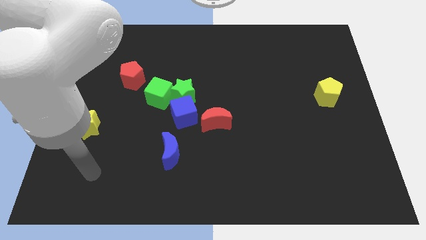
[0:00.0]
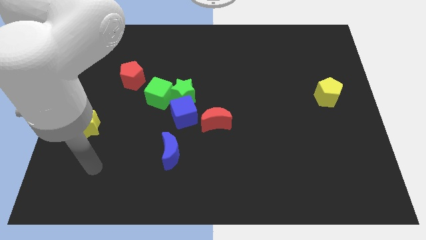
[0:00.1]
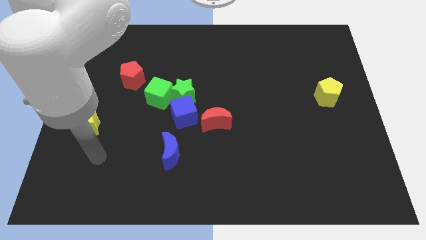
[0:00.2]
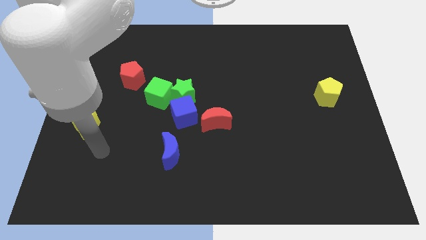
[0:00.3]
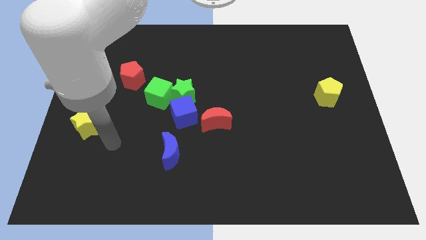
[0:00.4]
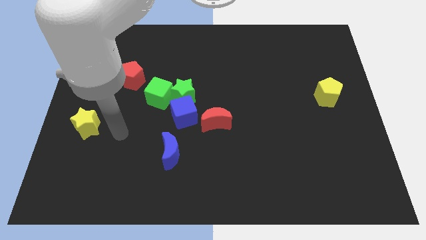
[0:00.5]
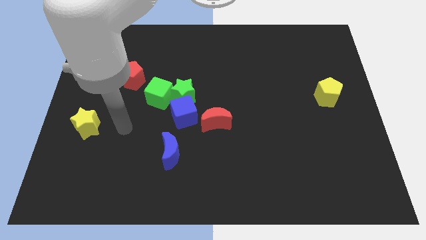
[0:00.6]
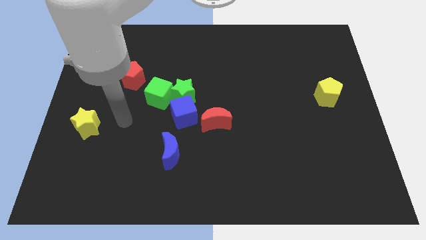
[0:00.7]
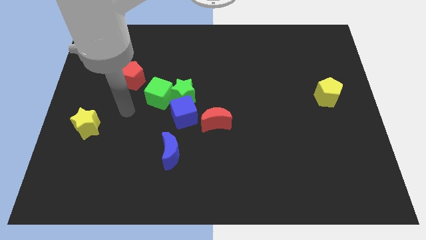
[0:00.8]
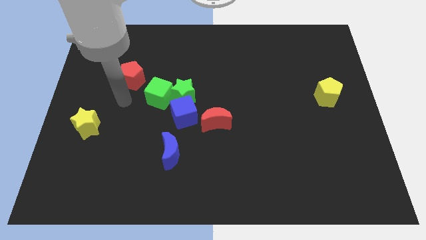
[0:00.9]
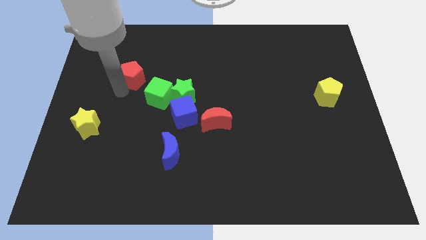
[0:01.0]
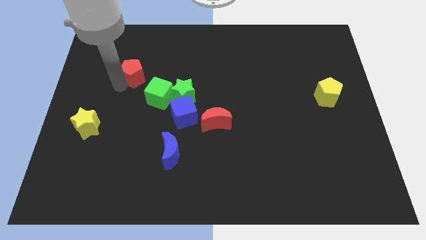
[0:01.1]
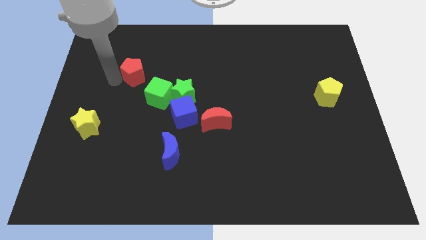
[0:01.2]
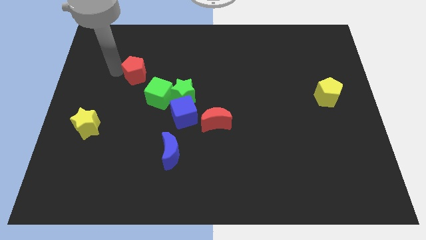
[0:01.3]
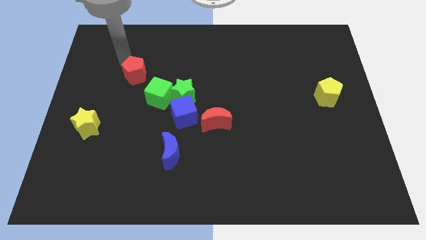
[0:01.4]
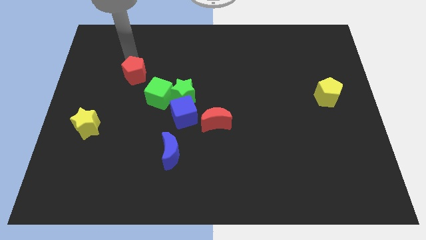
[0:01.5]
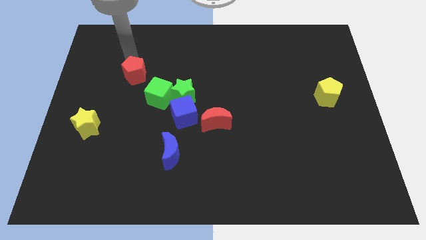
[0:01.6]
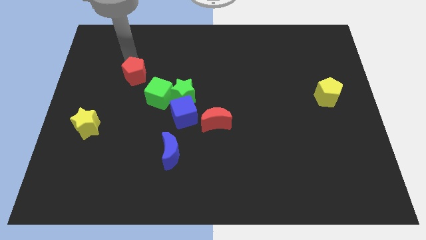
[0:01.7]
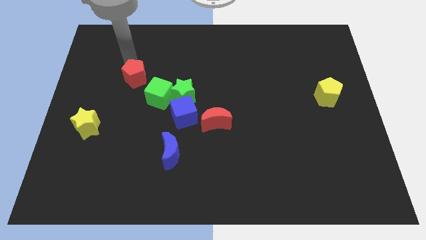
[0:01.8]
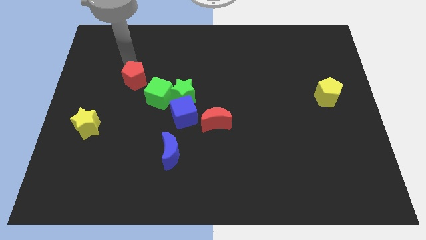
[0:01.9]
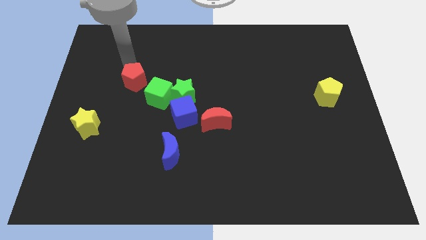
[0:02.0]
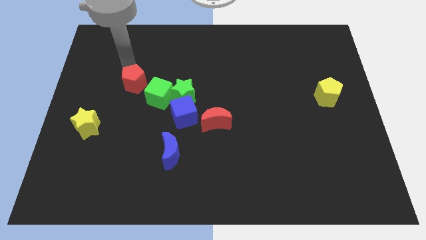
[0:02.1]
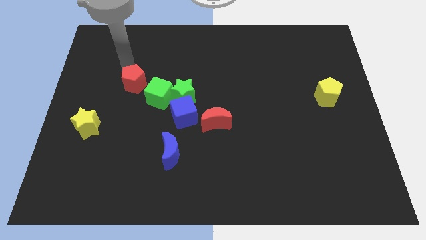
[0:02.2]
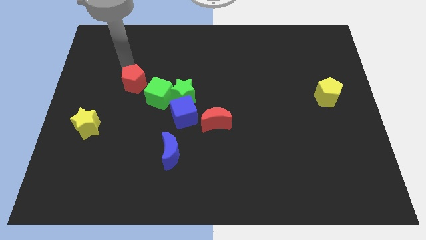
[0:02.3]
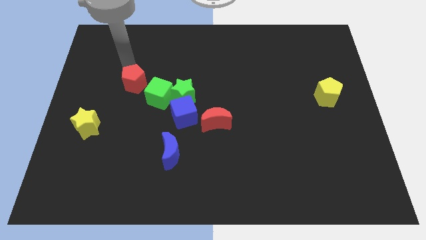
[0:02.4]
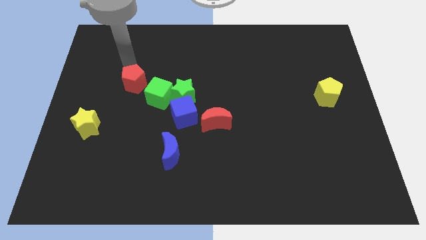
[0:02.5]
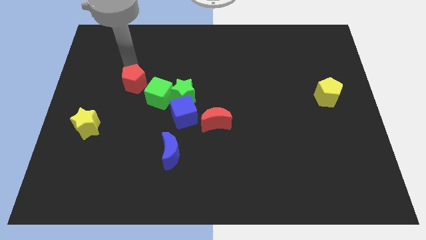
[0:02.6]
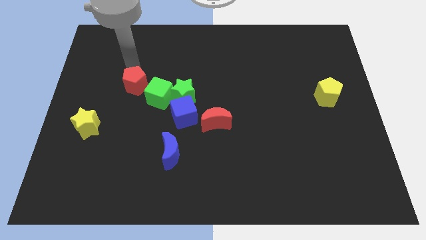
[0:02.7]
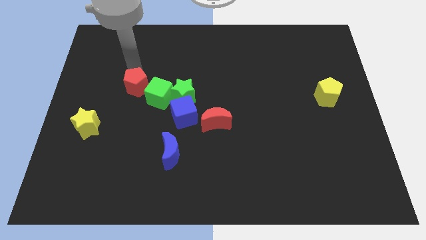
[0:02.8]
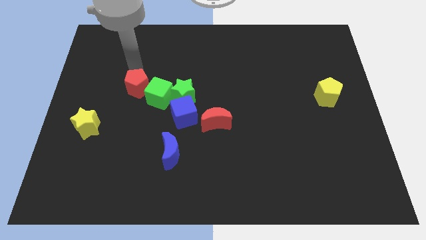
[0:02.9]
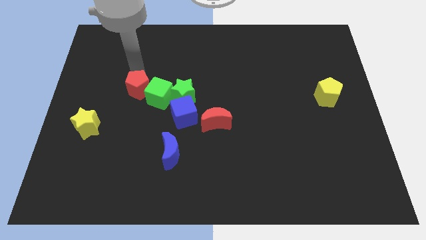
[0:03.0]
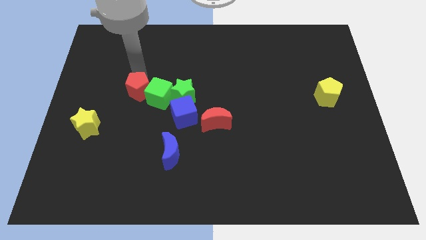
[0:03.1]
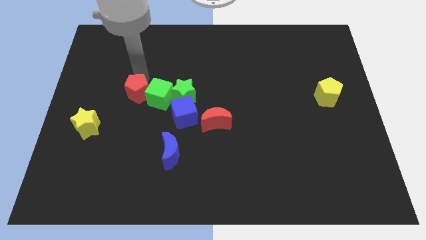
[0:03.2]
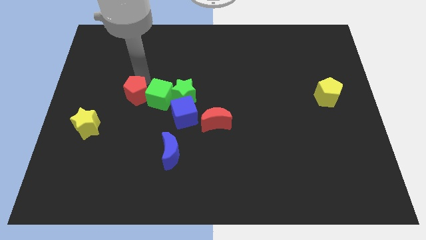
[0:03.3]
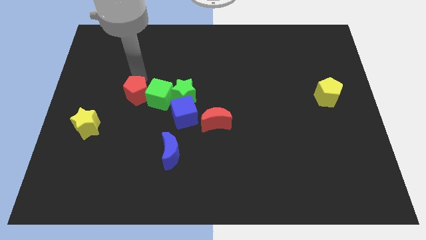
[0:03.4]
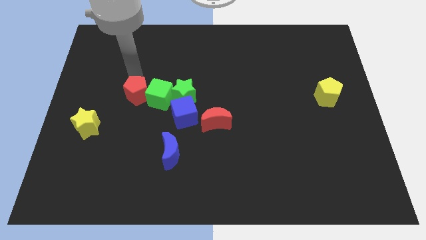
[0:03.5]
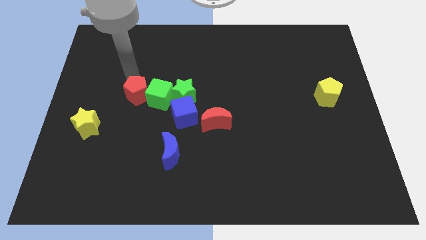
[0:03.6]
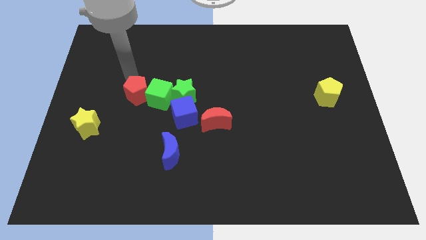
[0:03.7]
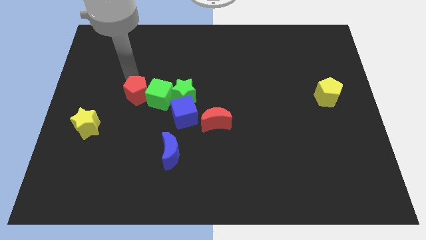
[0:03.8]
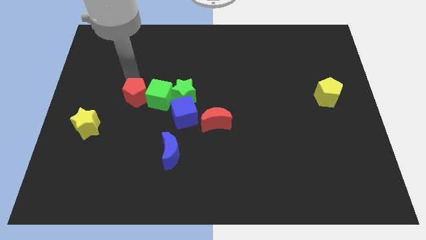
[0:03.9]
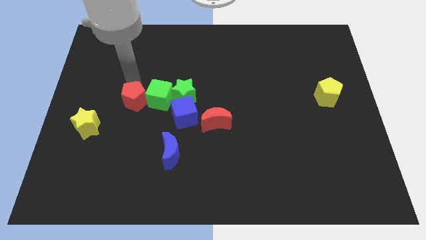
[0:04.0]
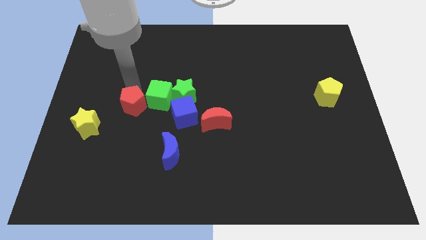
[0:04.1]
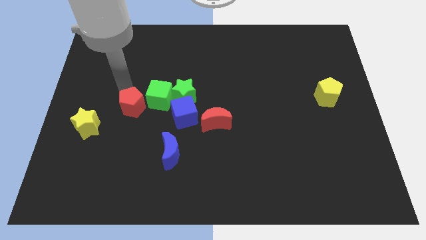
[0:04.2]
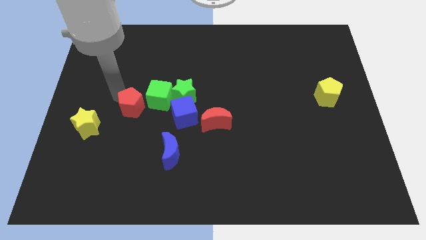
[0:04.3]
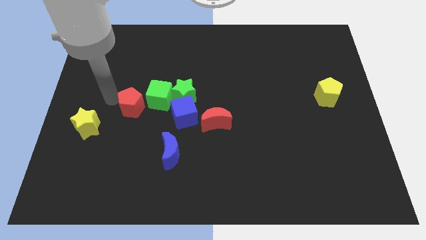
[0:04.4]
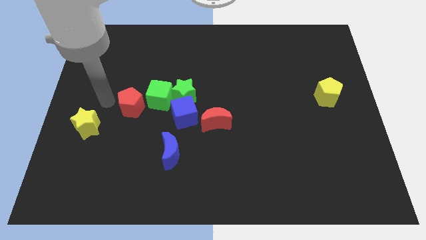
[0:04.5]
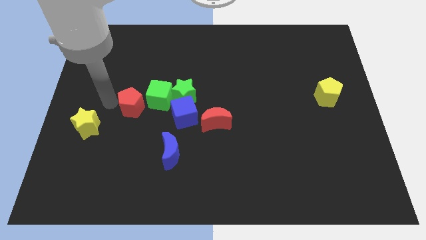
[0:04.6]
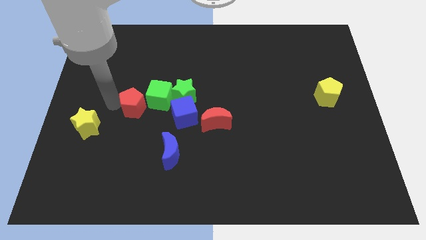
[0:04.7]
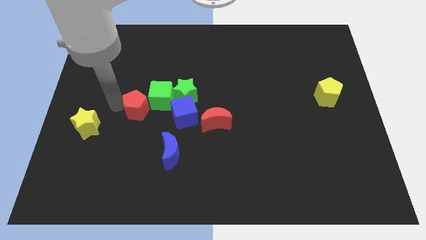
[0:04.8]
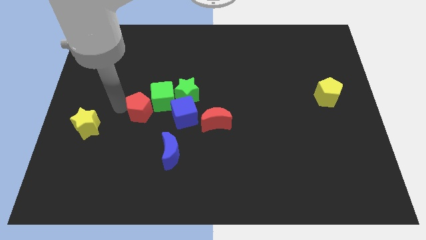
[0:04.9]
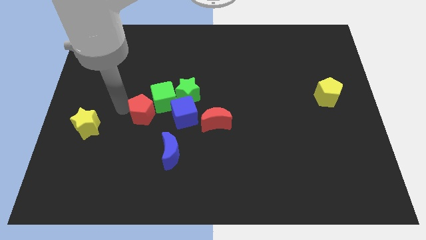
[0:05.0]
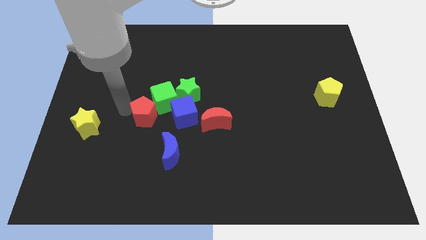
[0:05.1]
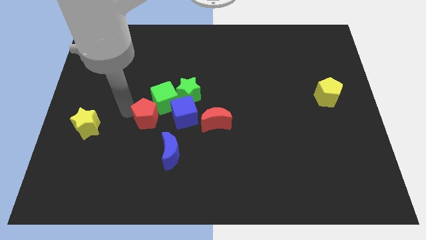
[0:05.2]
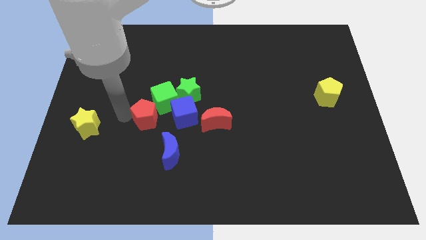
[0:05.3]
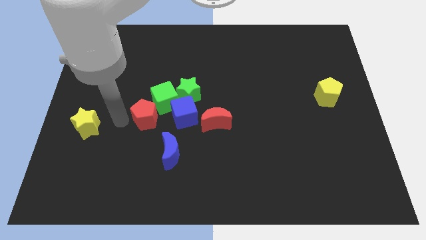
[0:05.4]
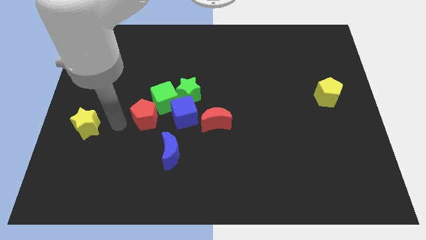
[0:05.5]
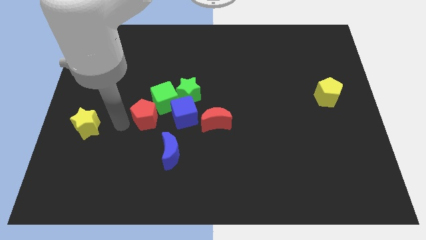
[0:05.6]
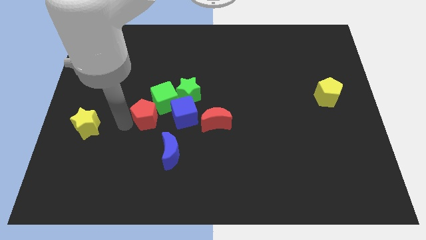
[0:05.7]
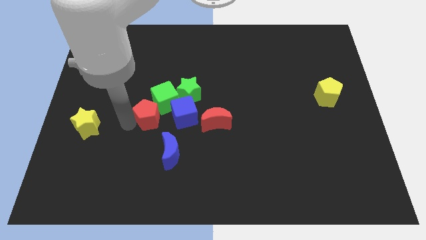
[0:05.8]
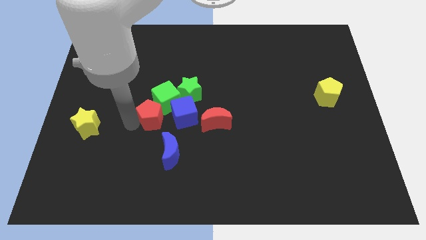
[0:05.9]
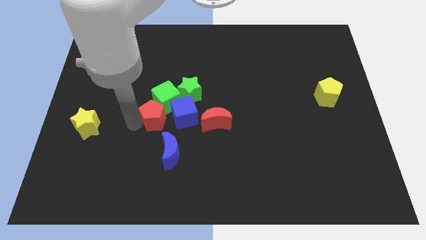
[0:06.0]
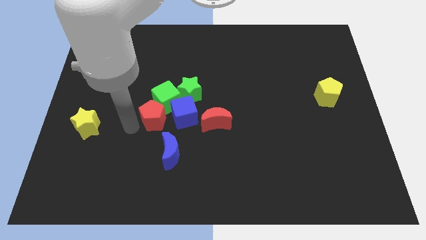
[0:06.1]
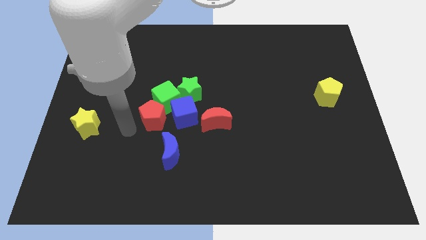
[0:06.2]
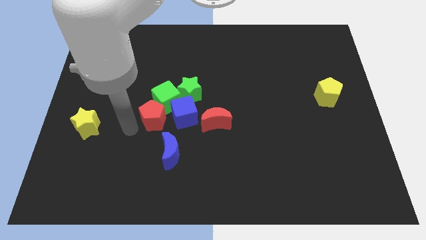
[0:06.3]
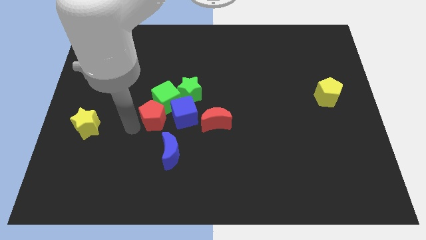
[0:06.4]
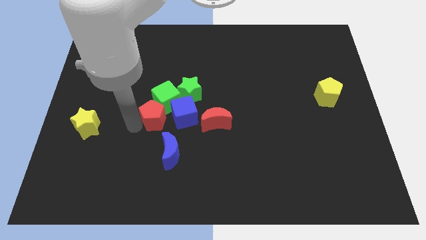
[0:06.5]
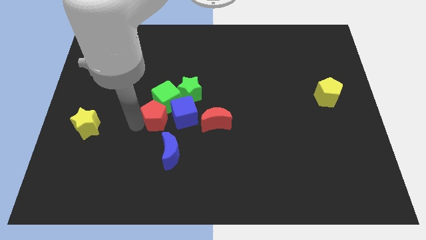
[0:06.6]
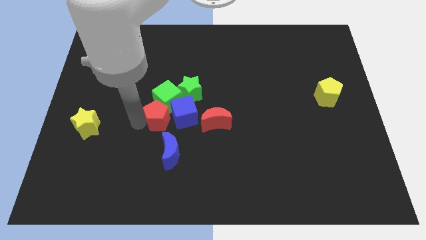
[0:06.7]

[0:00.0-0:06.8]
slide the red pentagon close to the blue cube
